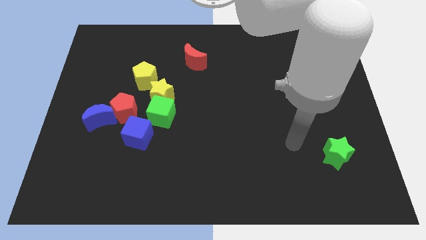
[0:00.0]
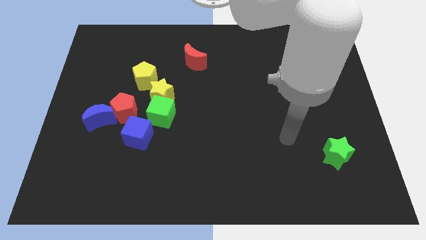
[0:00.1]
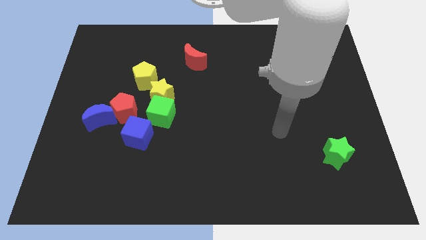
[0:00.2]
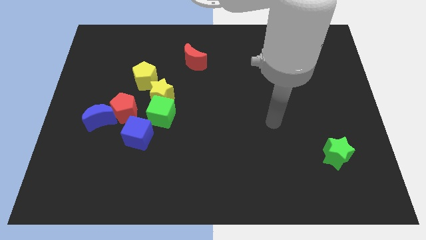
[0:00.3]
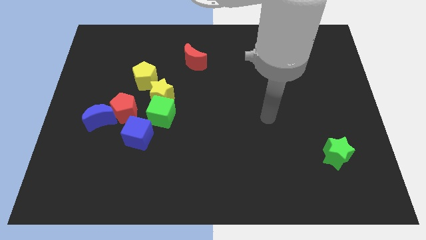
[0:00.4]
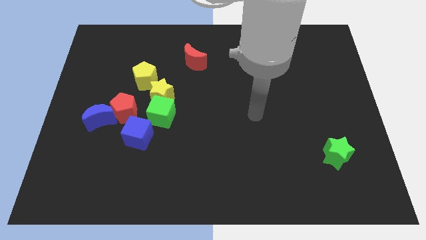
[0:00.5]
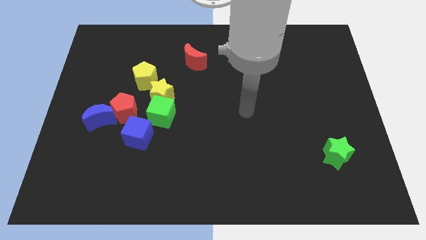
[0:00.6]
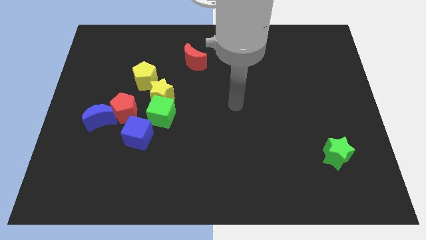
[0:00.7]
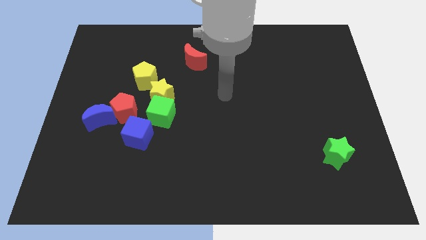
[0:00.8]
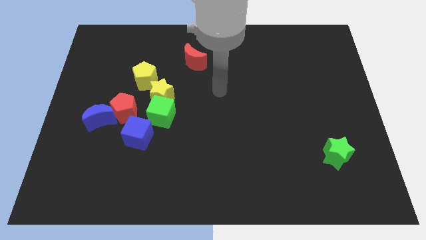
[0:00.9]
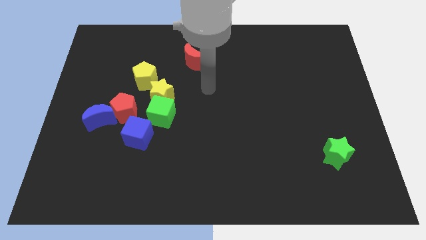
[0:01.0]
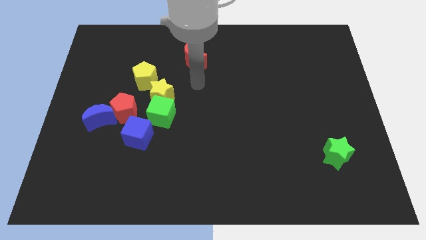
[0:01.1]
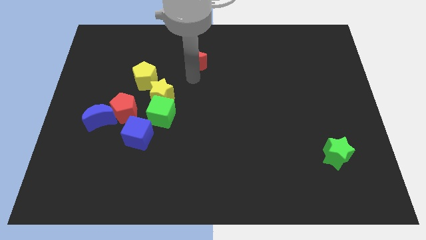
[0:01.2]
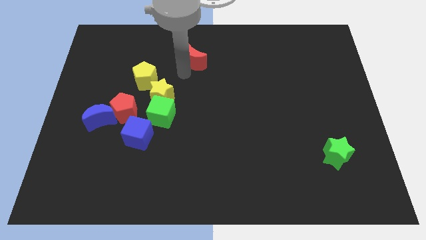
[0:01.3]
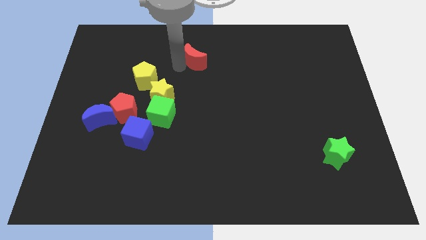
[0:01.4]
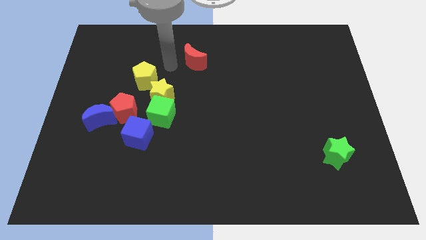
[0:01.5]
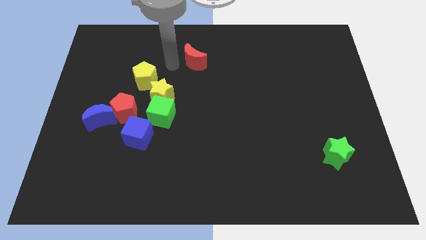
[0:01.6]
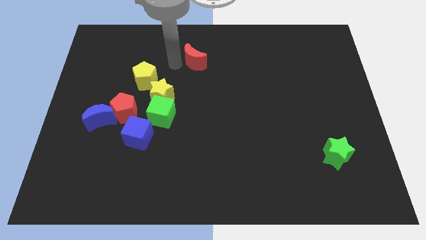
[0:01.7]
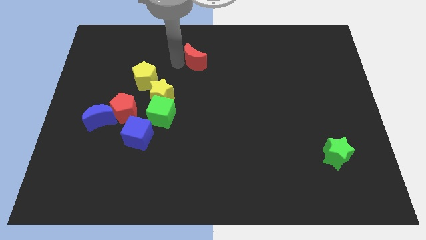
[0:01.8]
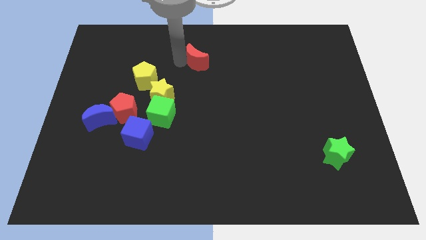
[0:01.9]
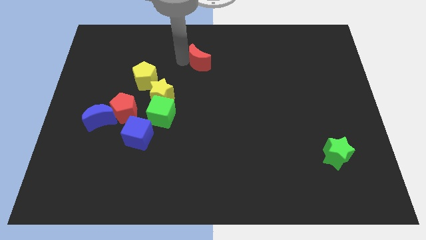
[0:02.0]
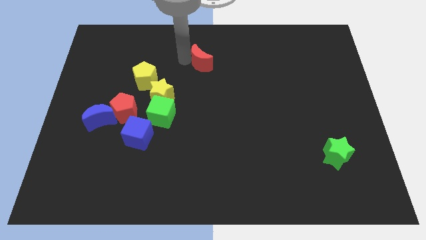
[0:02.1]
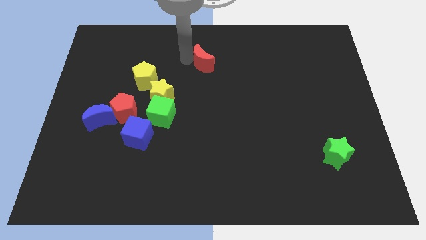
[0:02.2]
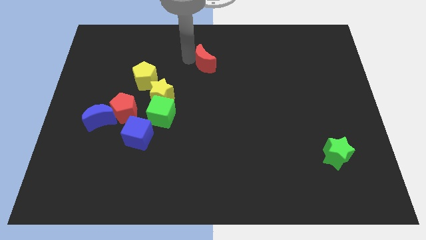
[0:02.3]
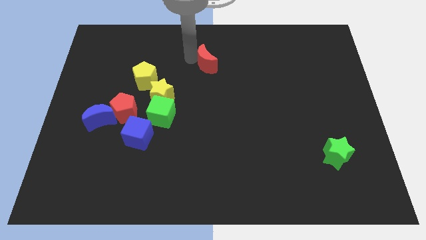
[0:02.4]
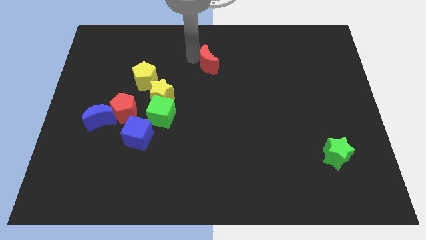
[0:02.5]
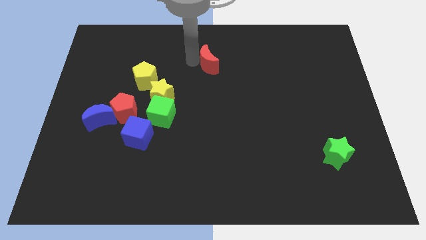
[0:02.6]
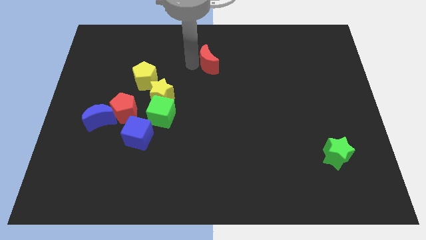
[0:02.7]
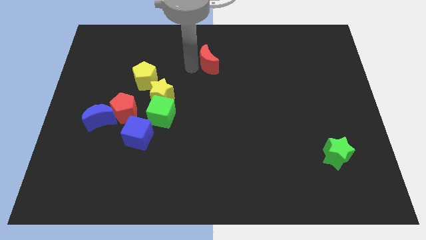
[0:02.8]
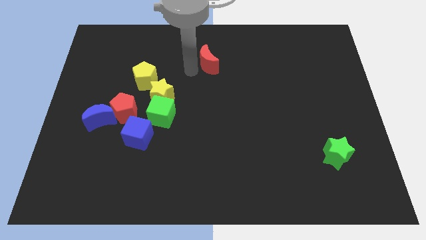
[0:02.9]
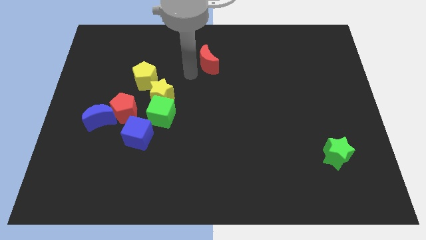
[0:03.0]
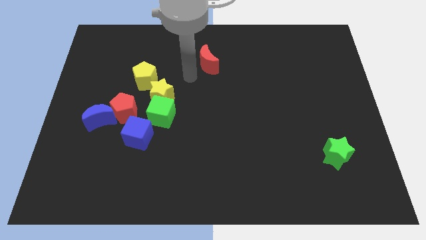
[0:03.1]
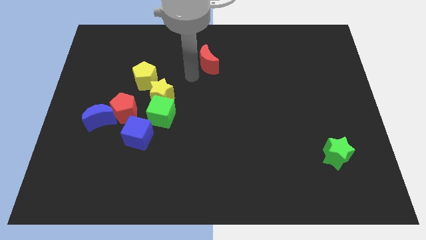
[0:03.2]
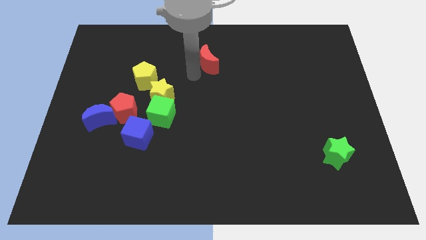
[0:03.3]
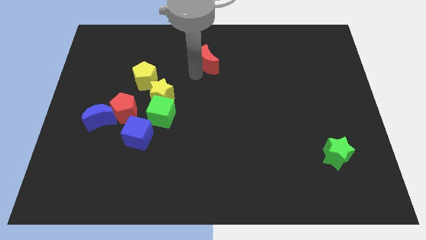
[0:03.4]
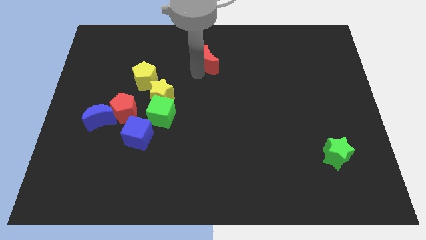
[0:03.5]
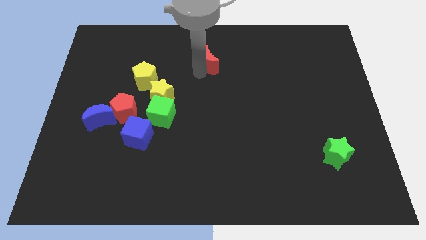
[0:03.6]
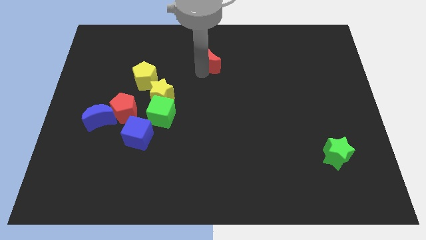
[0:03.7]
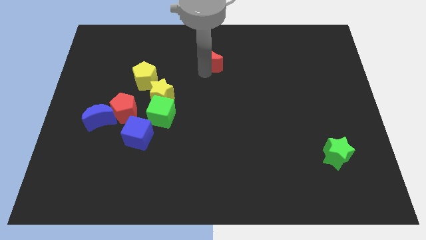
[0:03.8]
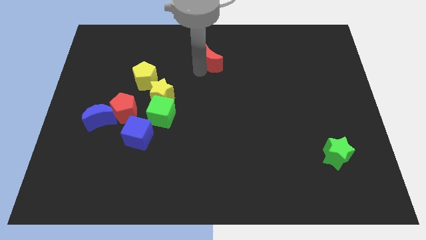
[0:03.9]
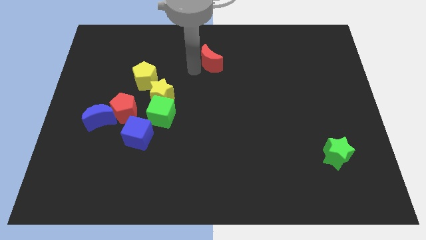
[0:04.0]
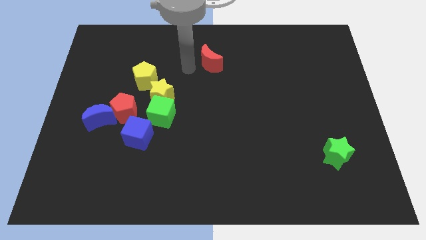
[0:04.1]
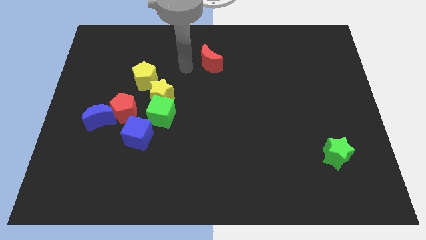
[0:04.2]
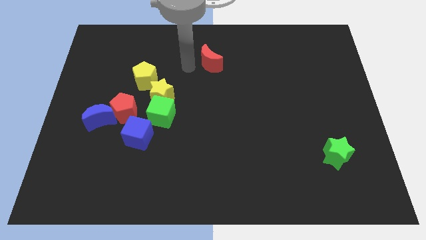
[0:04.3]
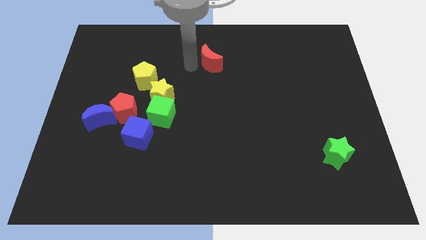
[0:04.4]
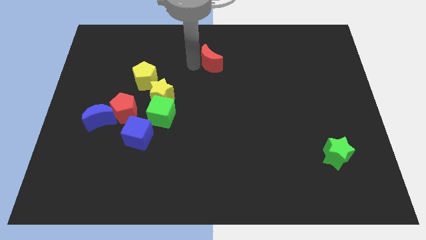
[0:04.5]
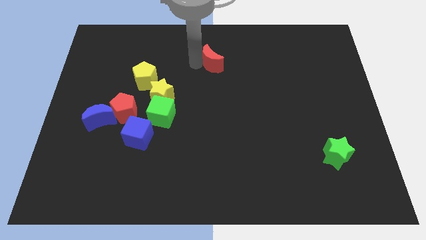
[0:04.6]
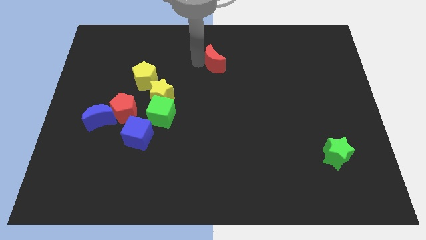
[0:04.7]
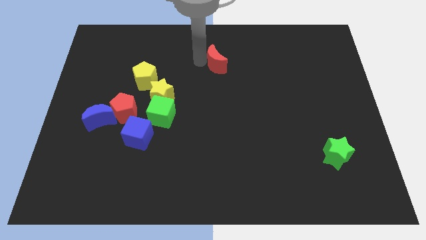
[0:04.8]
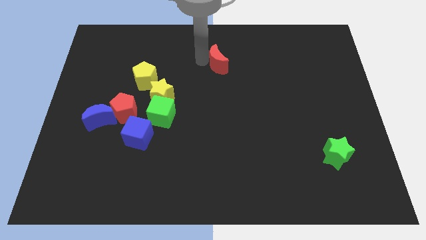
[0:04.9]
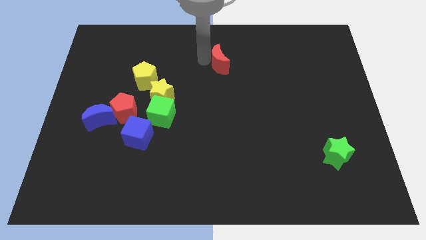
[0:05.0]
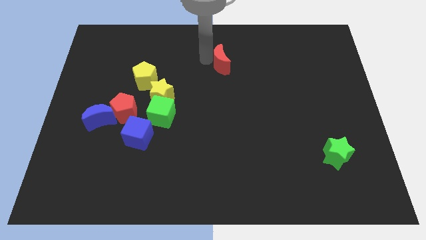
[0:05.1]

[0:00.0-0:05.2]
move the red moon to the right a little bit

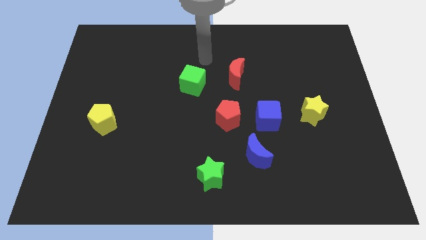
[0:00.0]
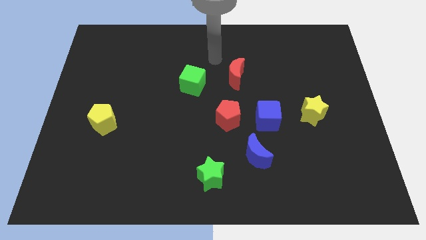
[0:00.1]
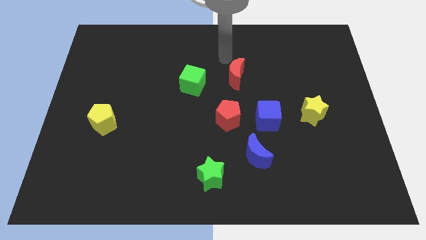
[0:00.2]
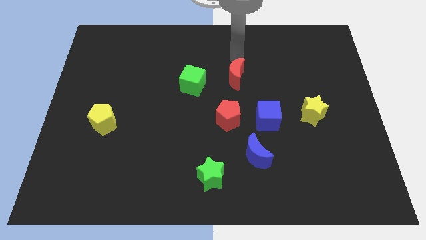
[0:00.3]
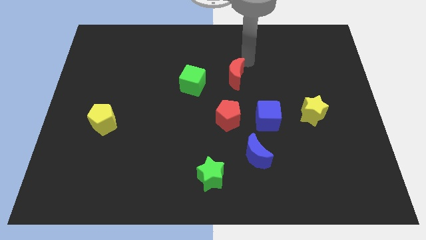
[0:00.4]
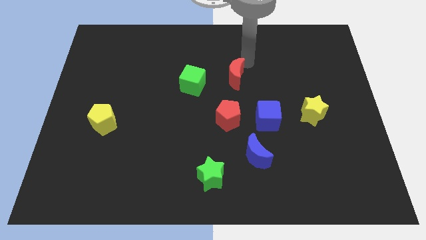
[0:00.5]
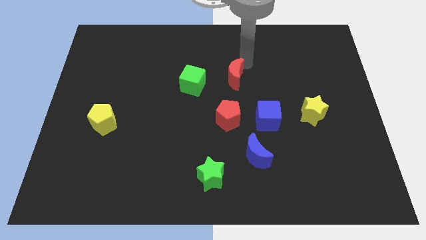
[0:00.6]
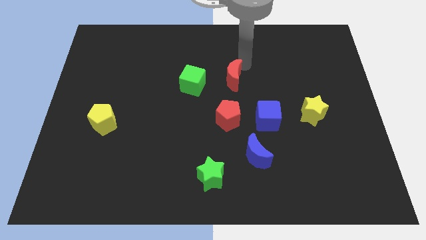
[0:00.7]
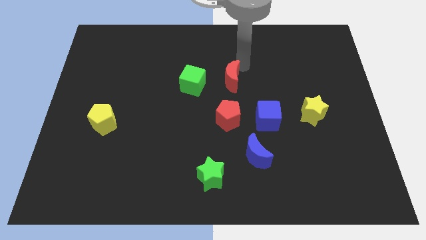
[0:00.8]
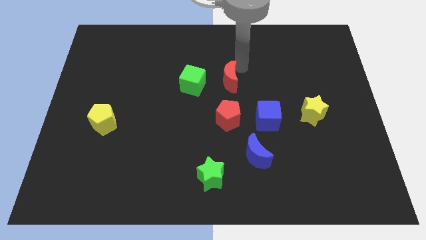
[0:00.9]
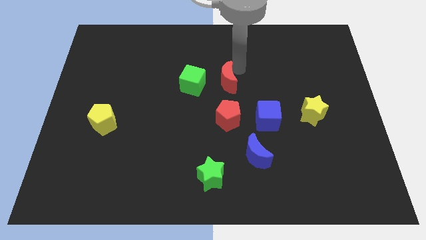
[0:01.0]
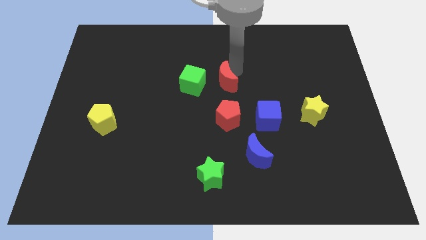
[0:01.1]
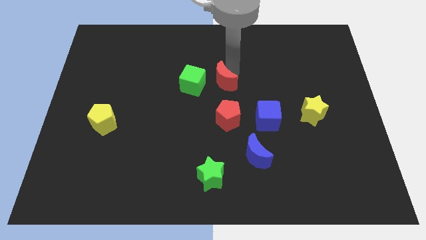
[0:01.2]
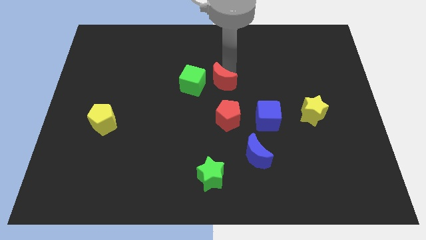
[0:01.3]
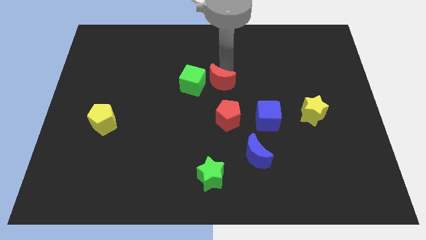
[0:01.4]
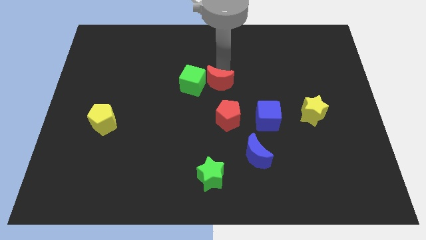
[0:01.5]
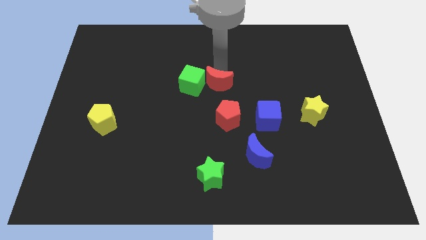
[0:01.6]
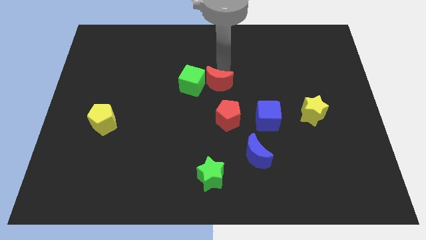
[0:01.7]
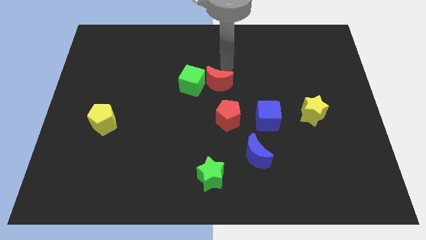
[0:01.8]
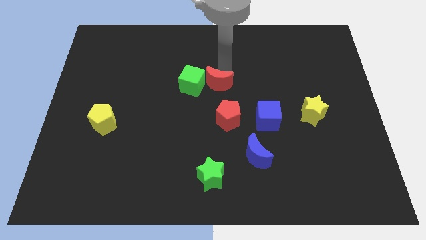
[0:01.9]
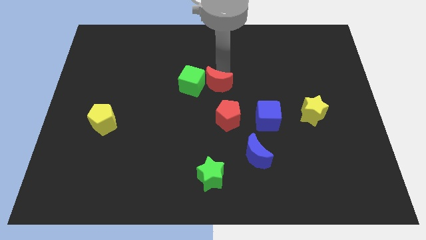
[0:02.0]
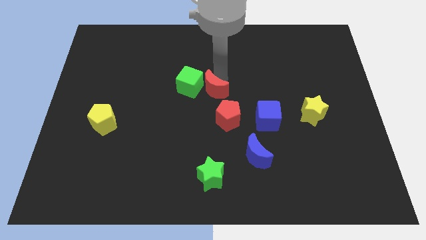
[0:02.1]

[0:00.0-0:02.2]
slide the red moon a little bit down and then left

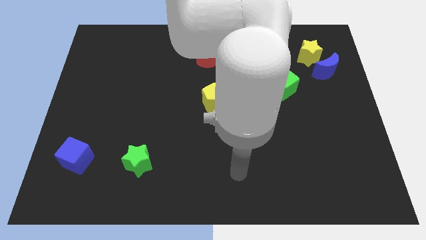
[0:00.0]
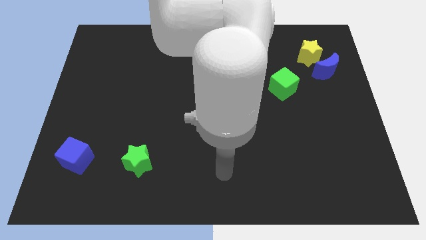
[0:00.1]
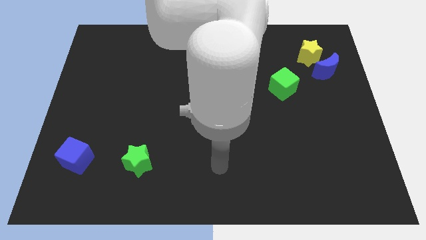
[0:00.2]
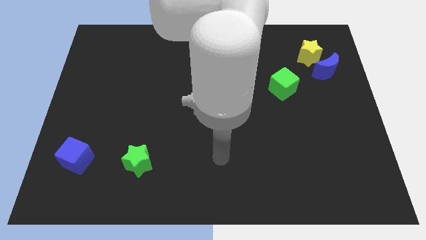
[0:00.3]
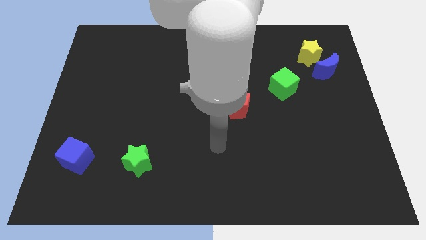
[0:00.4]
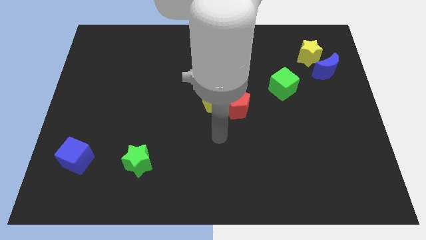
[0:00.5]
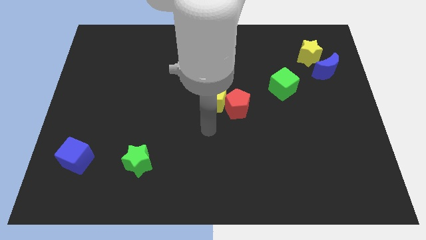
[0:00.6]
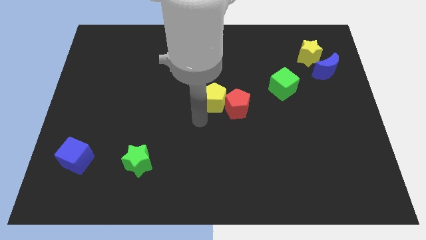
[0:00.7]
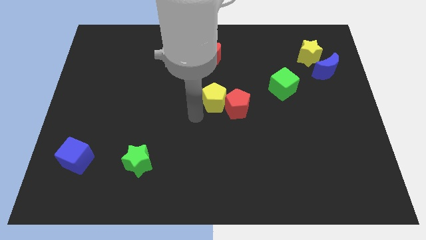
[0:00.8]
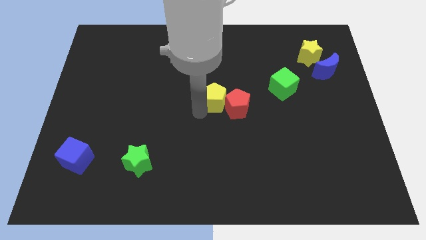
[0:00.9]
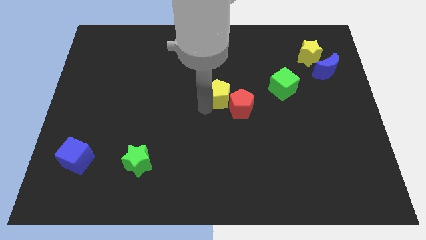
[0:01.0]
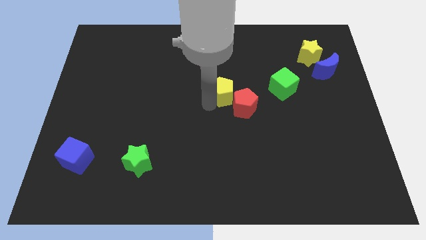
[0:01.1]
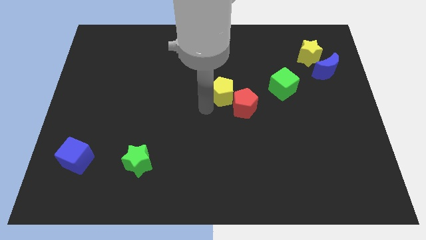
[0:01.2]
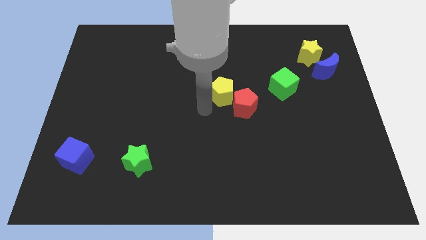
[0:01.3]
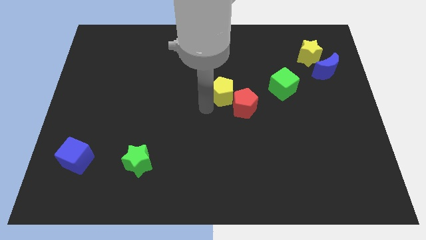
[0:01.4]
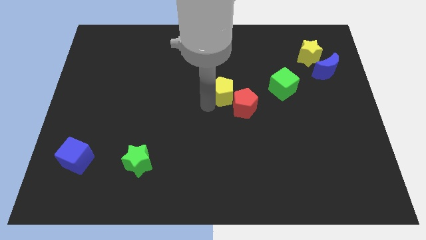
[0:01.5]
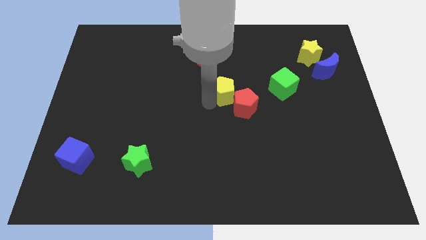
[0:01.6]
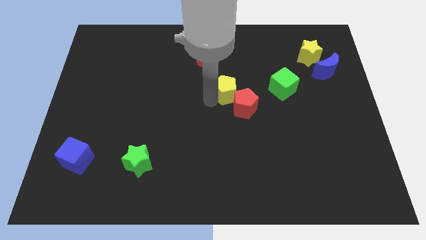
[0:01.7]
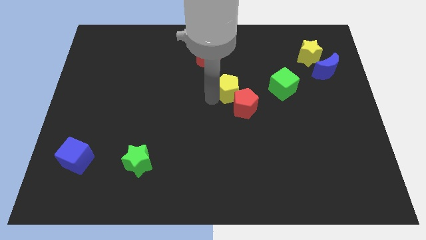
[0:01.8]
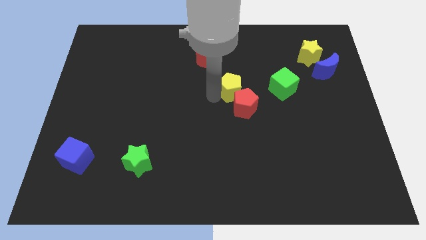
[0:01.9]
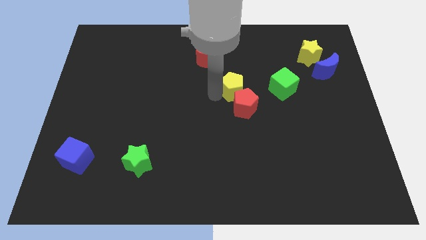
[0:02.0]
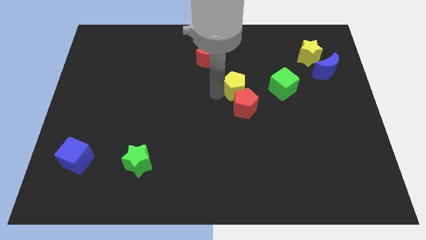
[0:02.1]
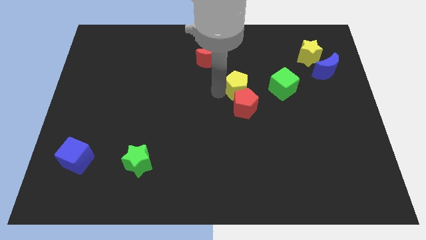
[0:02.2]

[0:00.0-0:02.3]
slide the yellow pentagon up and then to the right slightly
